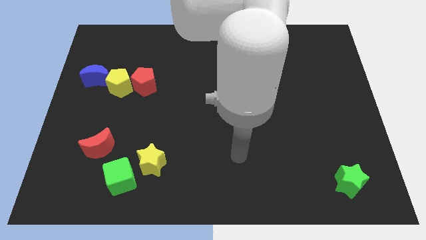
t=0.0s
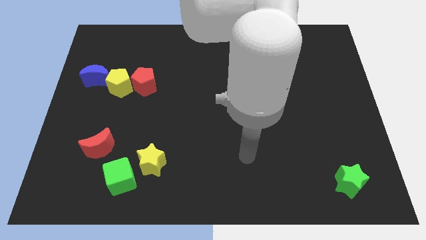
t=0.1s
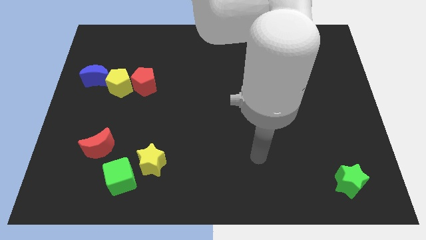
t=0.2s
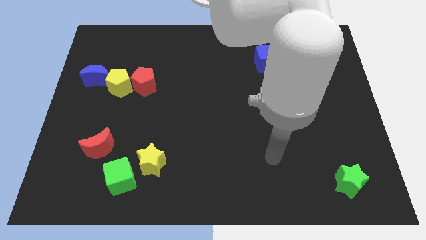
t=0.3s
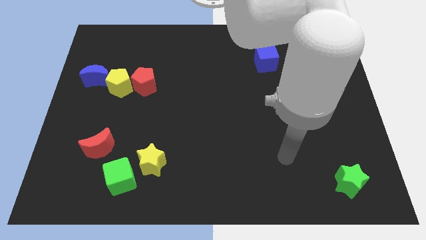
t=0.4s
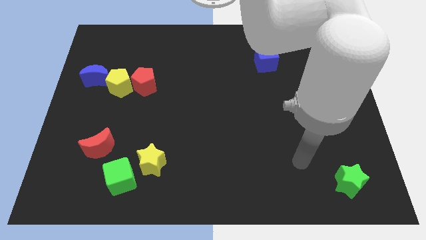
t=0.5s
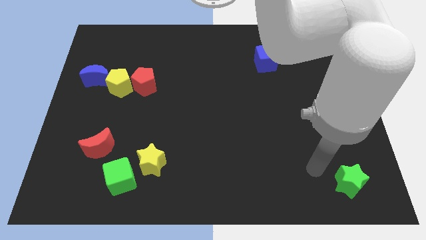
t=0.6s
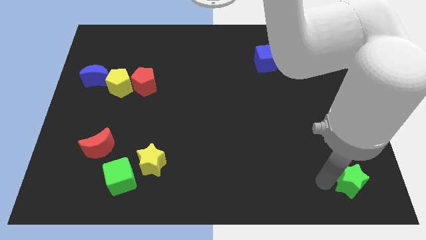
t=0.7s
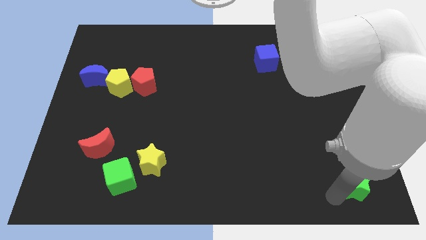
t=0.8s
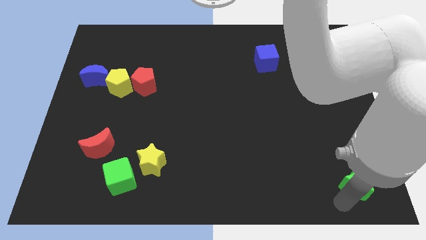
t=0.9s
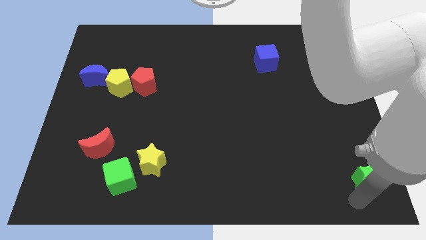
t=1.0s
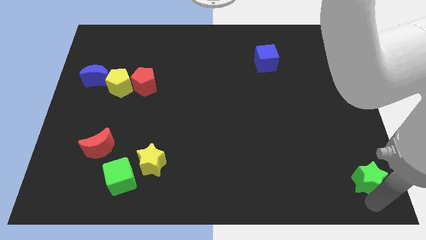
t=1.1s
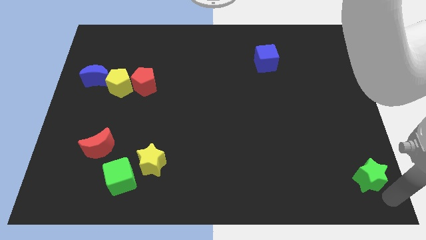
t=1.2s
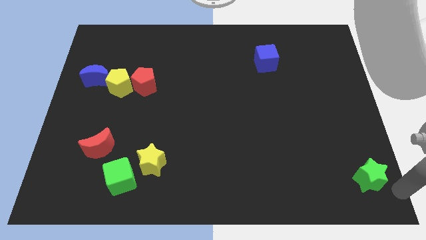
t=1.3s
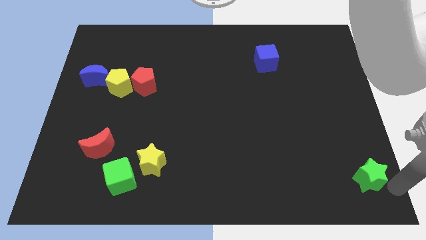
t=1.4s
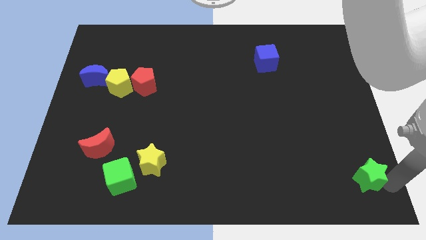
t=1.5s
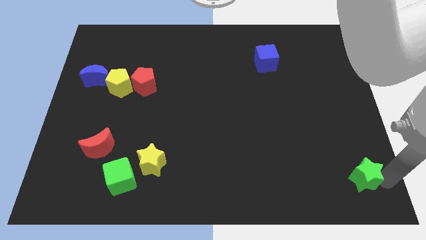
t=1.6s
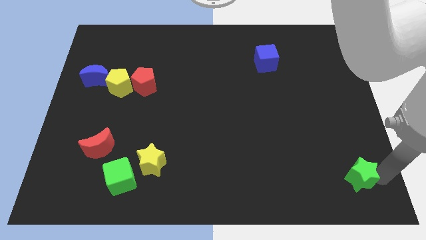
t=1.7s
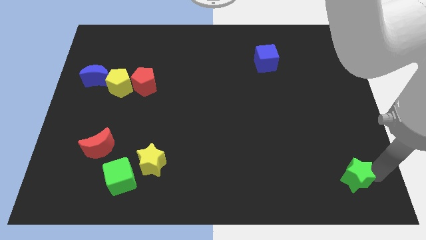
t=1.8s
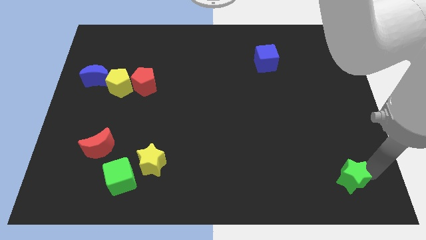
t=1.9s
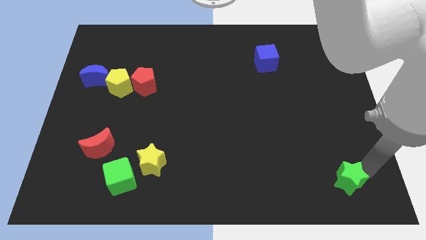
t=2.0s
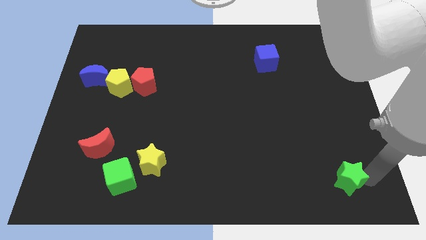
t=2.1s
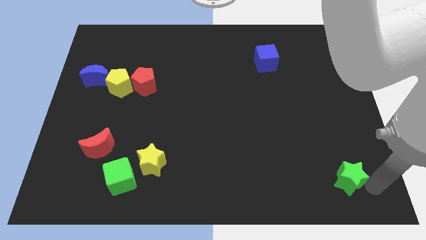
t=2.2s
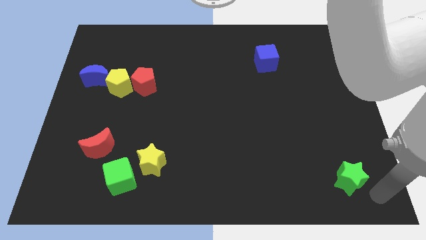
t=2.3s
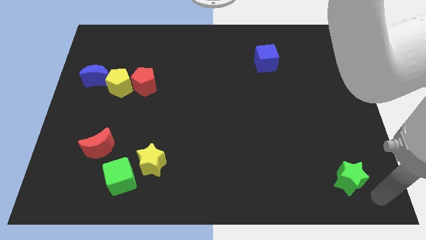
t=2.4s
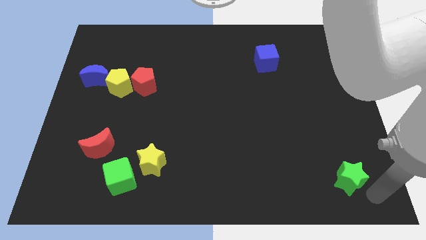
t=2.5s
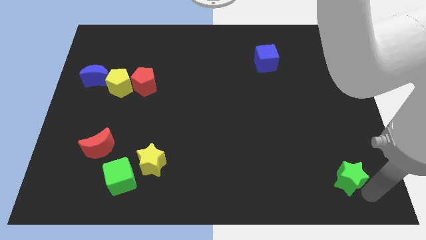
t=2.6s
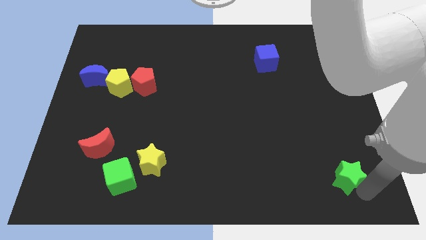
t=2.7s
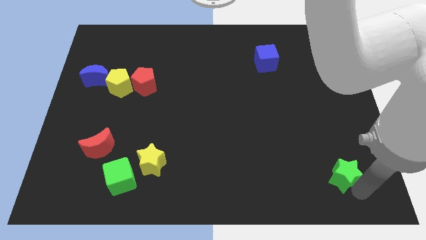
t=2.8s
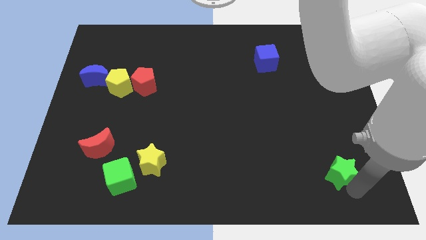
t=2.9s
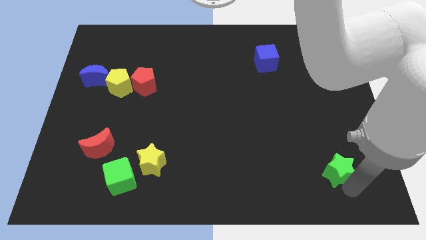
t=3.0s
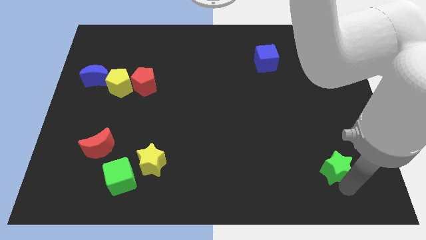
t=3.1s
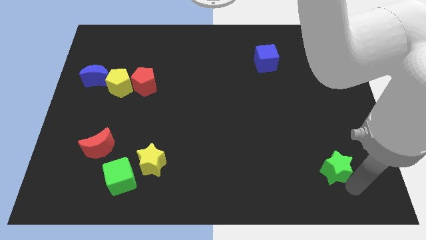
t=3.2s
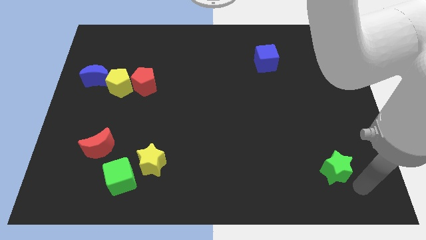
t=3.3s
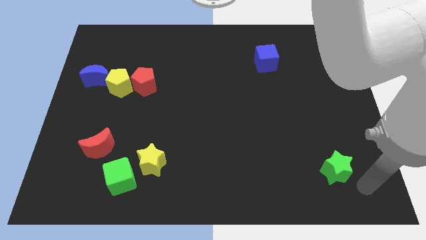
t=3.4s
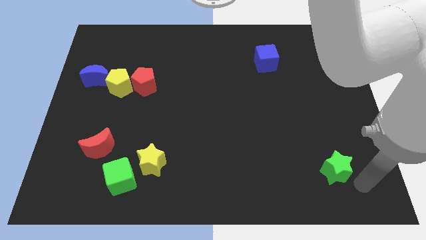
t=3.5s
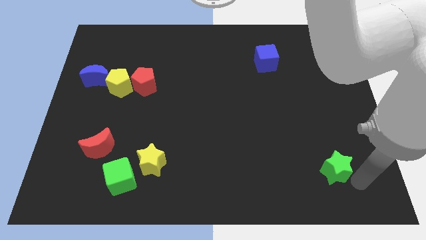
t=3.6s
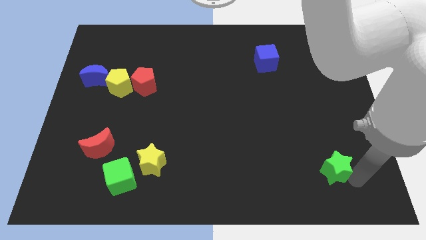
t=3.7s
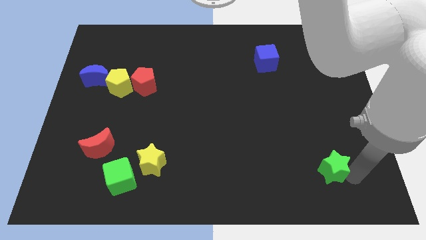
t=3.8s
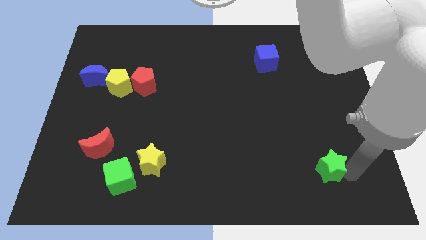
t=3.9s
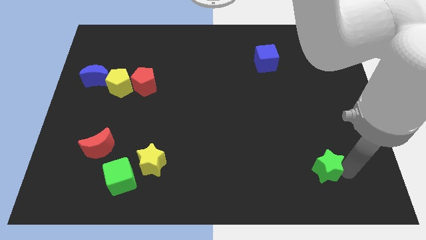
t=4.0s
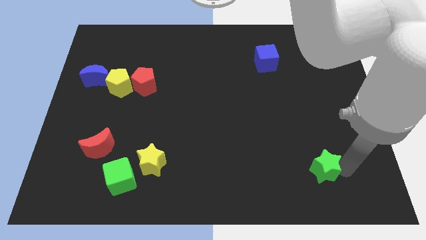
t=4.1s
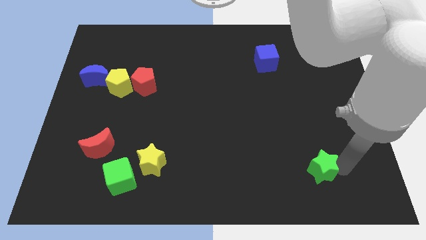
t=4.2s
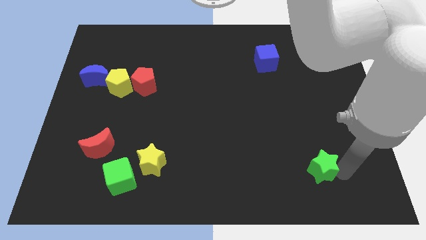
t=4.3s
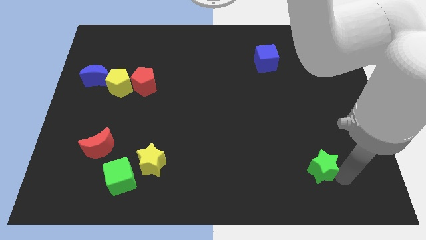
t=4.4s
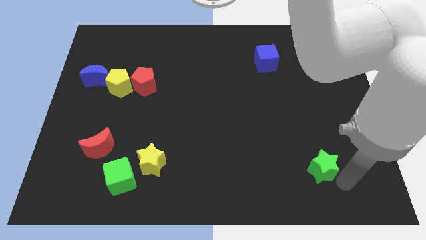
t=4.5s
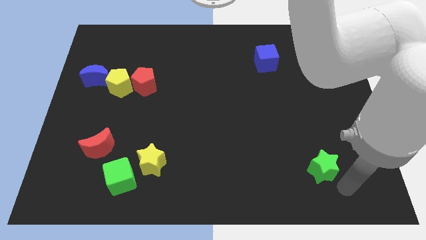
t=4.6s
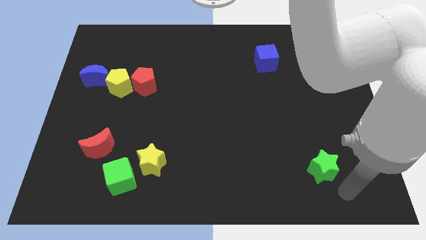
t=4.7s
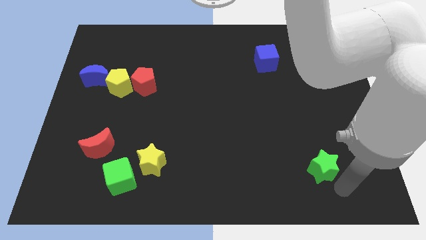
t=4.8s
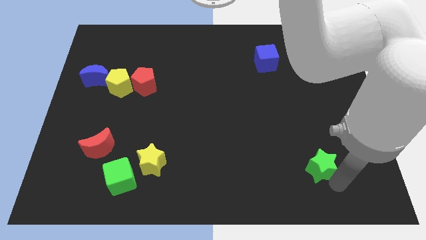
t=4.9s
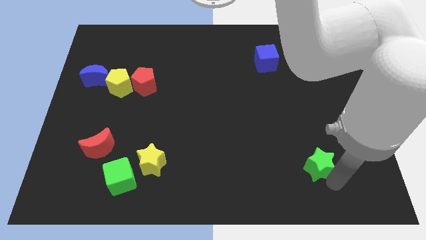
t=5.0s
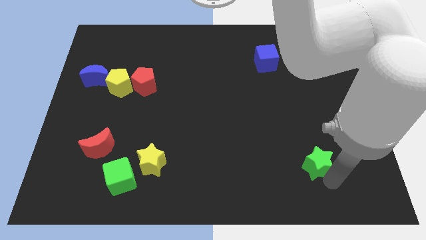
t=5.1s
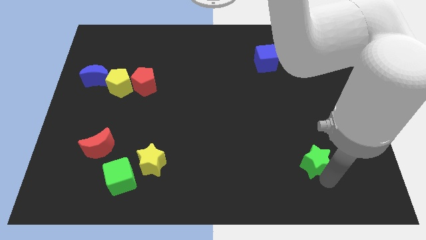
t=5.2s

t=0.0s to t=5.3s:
move the green star a little bit up and left

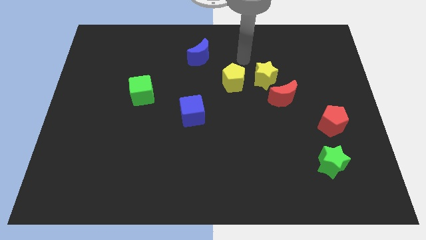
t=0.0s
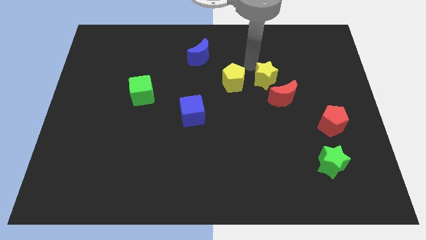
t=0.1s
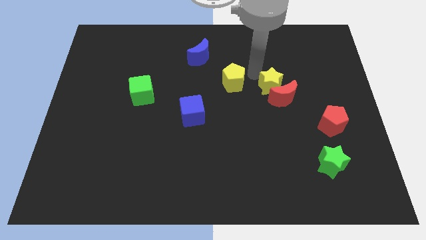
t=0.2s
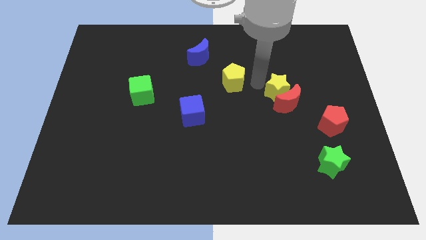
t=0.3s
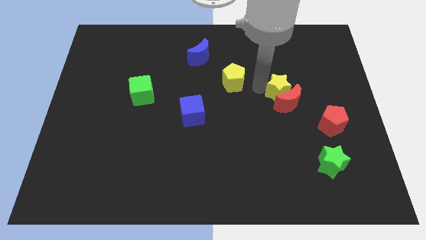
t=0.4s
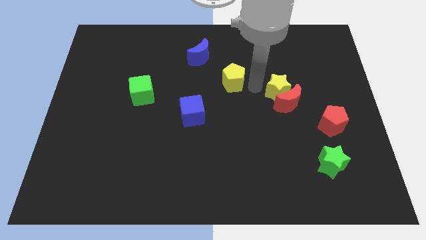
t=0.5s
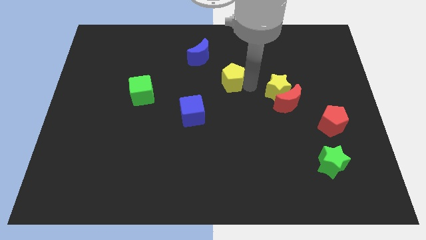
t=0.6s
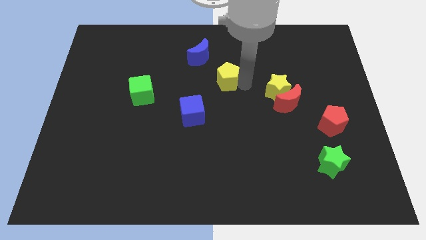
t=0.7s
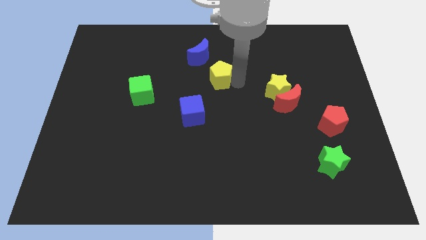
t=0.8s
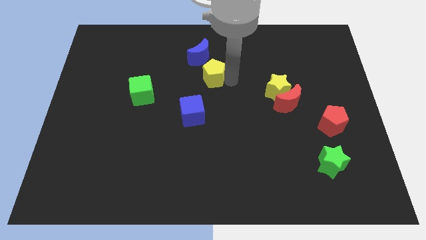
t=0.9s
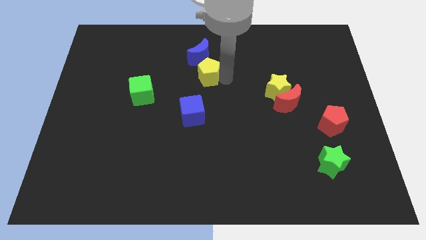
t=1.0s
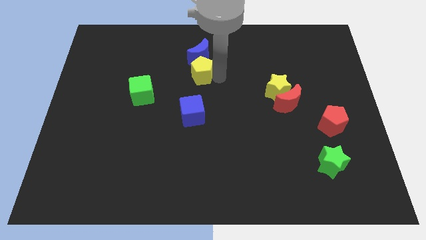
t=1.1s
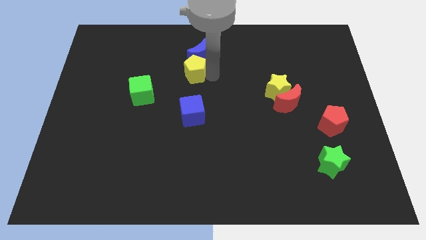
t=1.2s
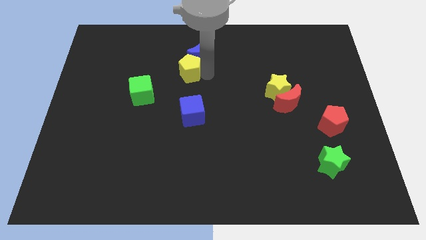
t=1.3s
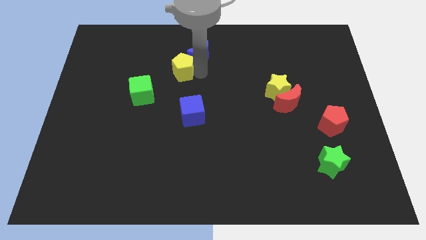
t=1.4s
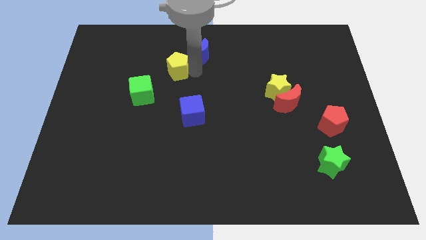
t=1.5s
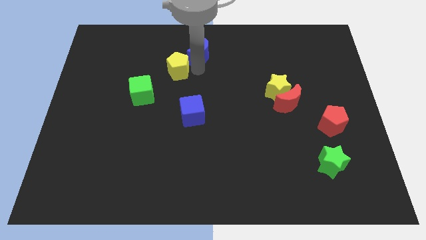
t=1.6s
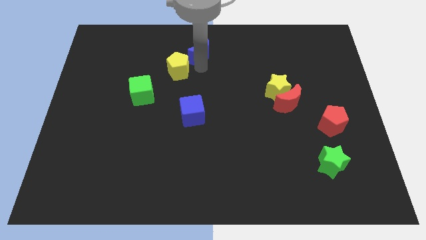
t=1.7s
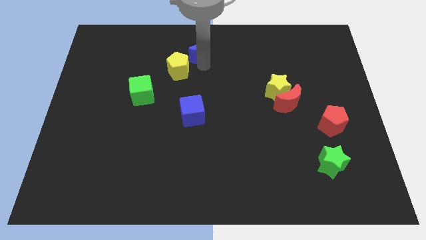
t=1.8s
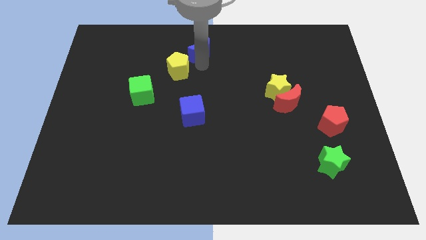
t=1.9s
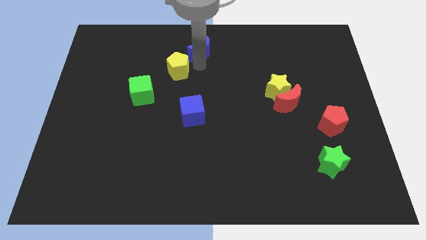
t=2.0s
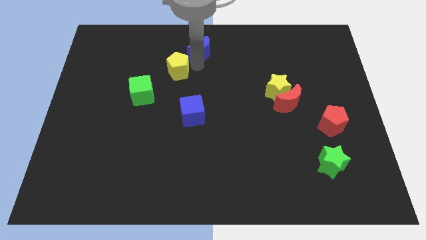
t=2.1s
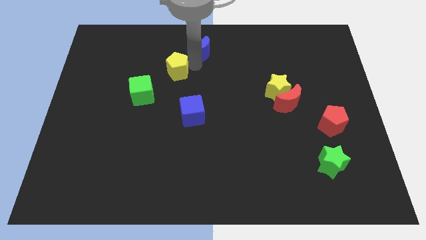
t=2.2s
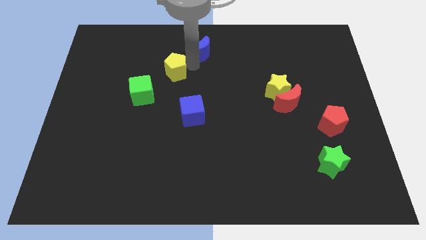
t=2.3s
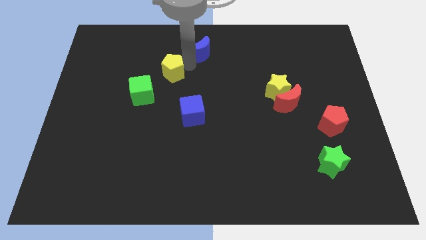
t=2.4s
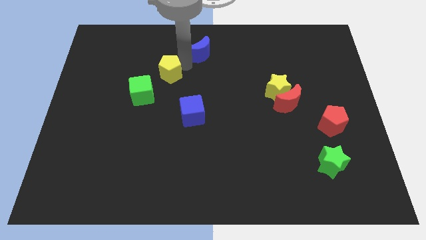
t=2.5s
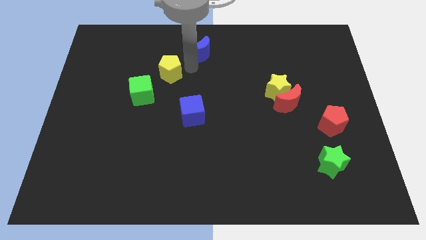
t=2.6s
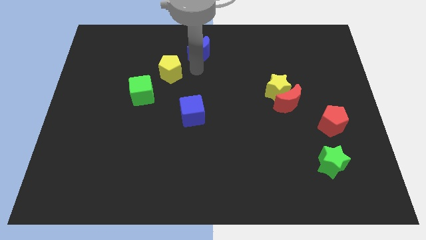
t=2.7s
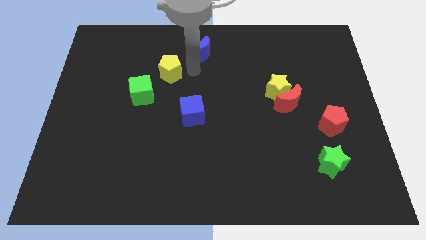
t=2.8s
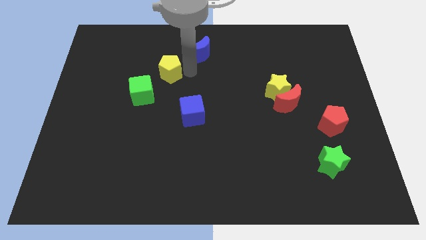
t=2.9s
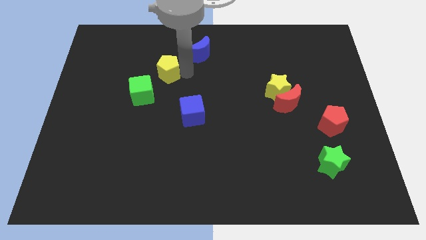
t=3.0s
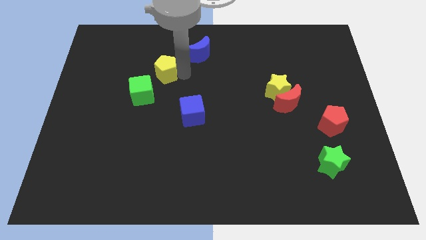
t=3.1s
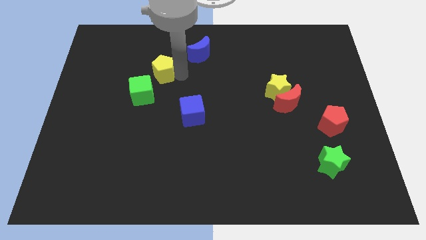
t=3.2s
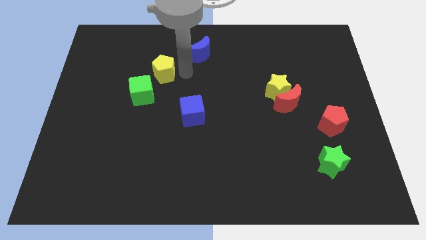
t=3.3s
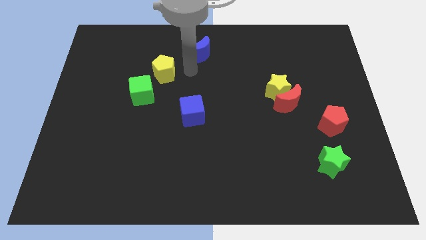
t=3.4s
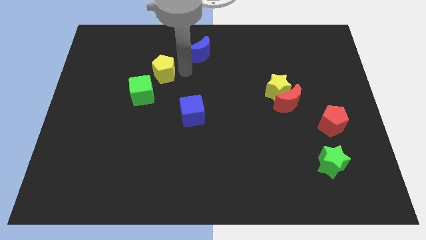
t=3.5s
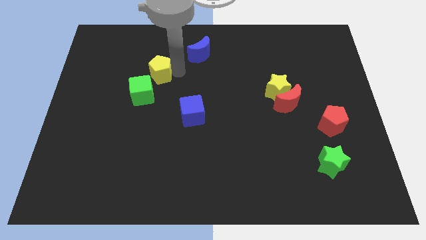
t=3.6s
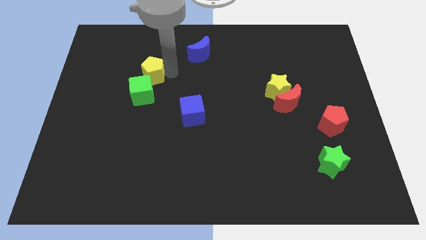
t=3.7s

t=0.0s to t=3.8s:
move the yellow pentagon to the left

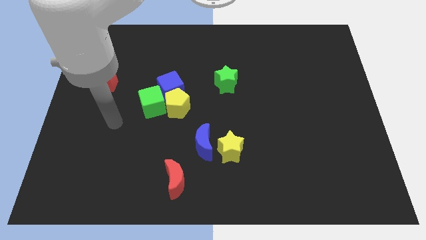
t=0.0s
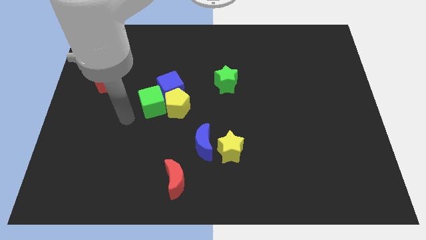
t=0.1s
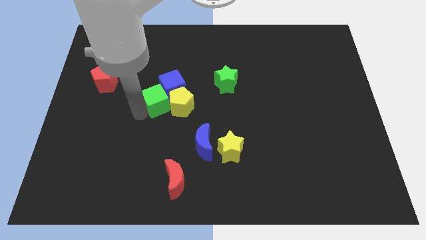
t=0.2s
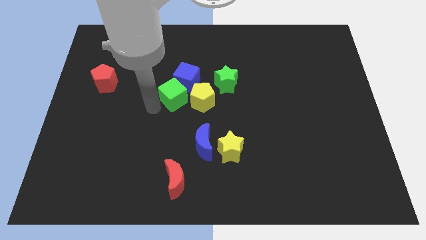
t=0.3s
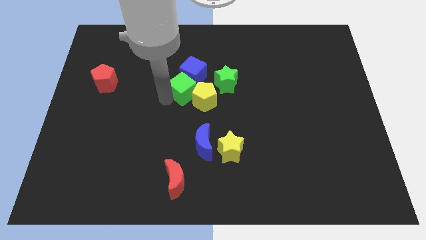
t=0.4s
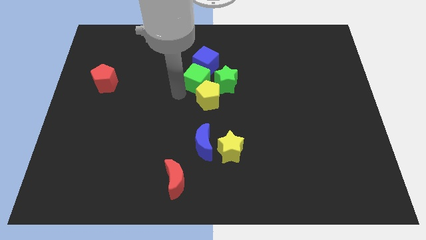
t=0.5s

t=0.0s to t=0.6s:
slide the yellow pentagon a little to the right
